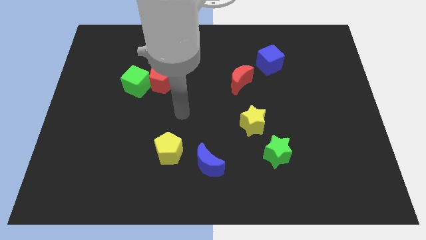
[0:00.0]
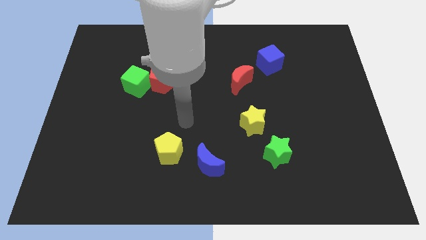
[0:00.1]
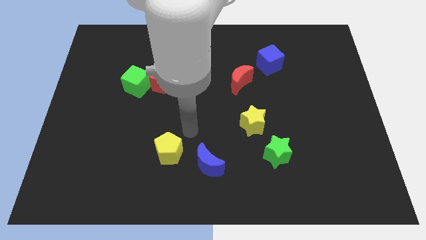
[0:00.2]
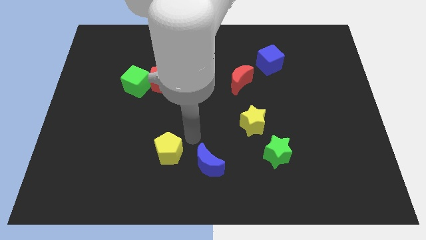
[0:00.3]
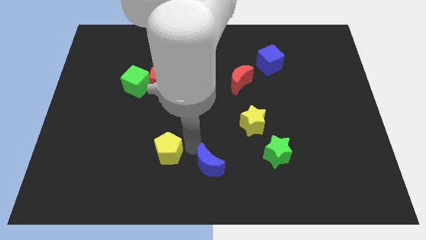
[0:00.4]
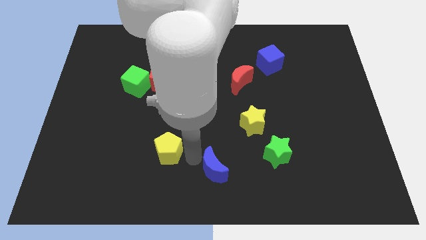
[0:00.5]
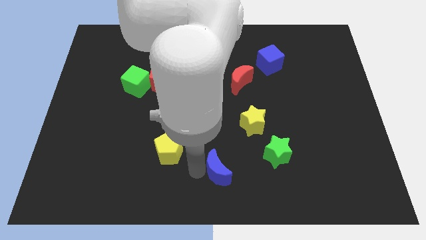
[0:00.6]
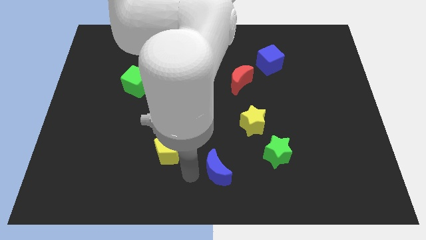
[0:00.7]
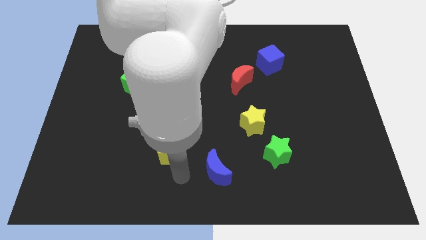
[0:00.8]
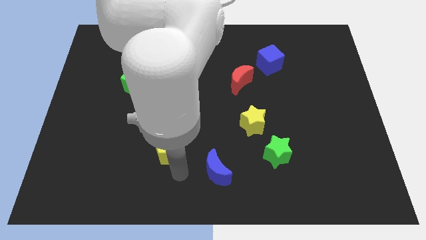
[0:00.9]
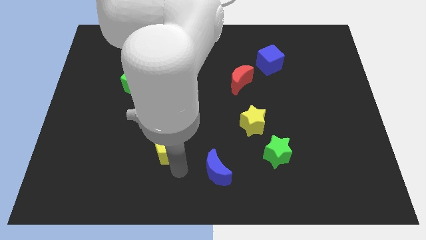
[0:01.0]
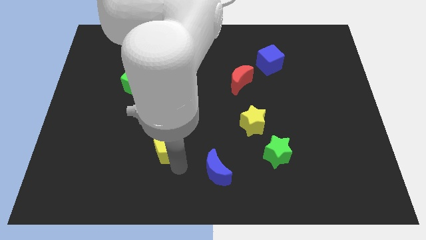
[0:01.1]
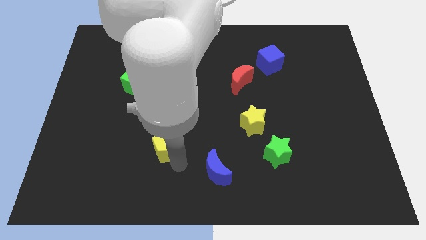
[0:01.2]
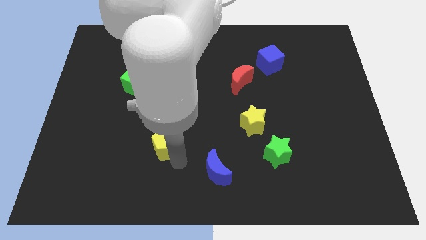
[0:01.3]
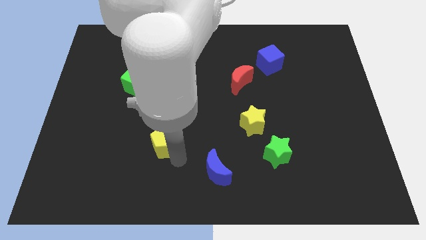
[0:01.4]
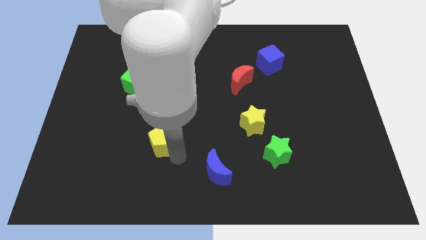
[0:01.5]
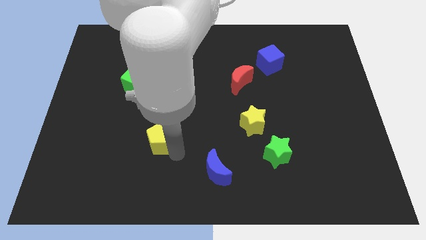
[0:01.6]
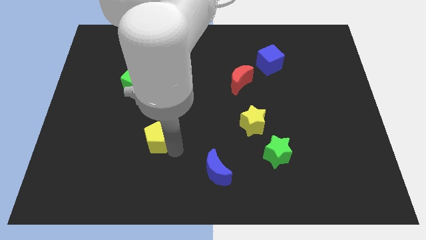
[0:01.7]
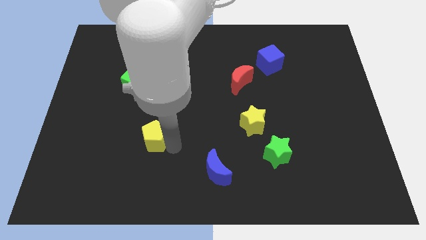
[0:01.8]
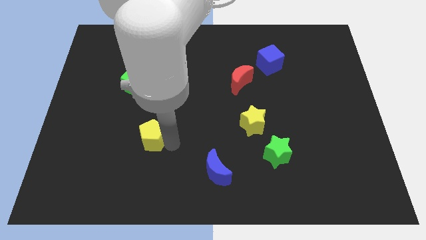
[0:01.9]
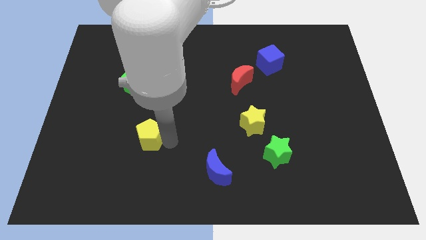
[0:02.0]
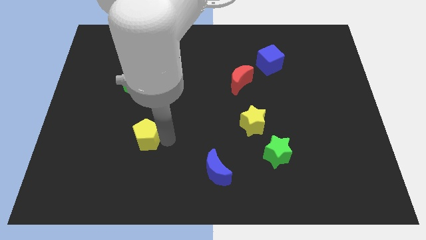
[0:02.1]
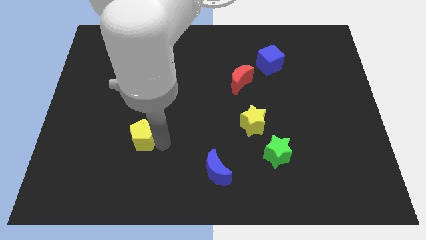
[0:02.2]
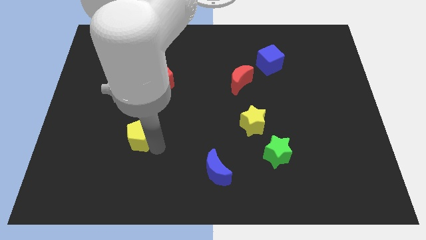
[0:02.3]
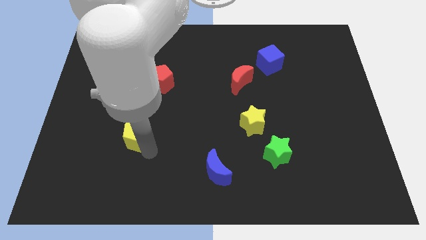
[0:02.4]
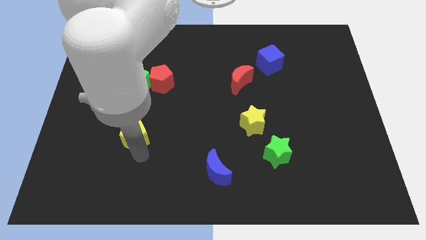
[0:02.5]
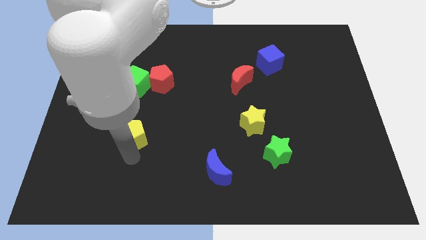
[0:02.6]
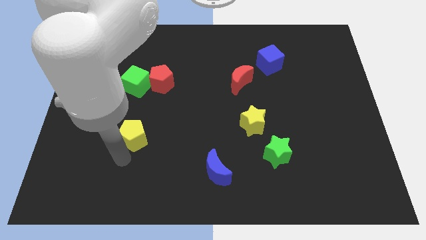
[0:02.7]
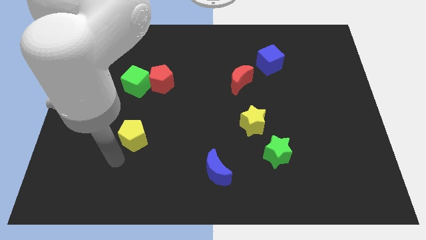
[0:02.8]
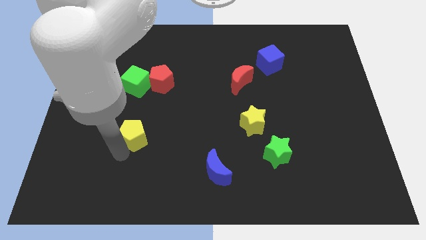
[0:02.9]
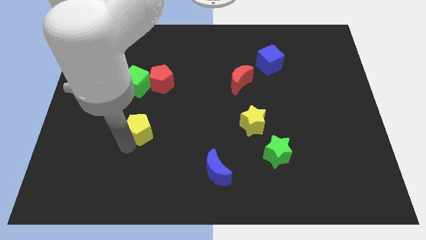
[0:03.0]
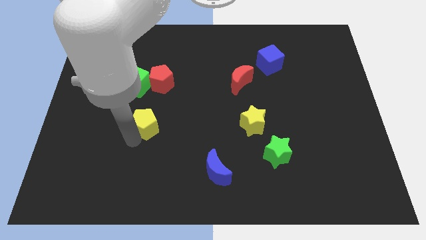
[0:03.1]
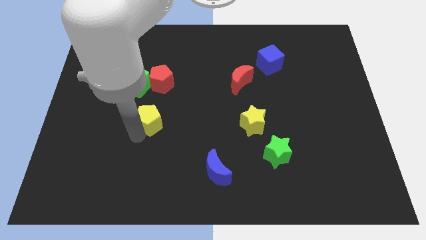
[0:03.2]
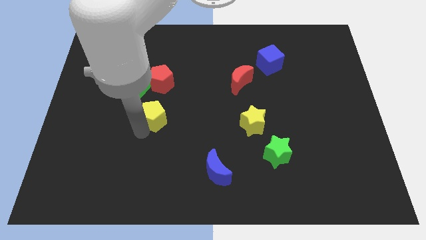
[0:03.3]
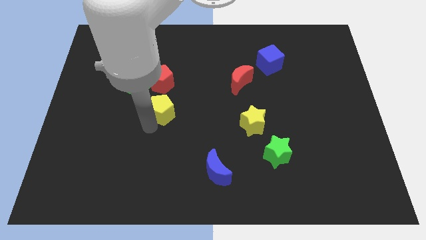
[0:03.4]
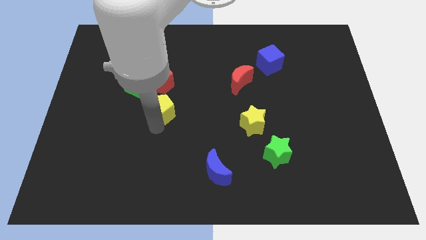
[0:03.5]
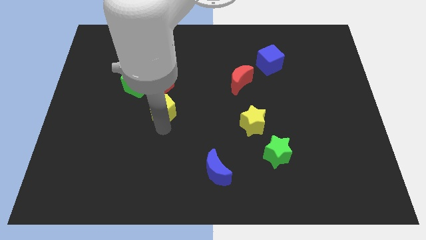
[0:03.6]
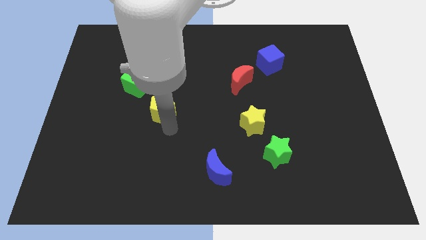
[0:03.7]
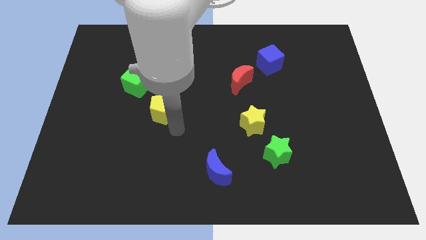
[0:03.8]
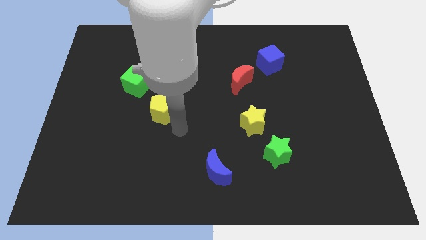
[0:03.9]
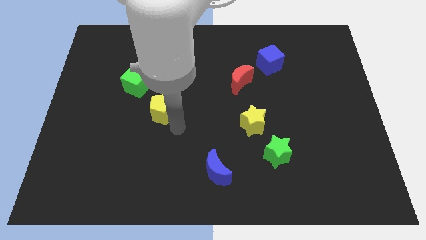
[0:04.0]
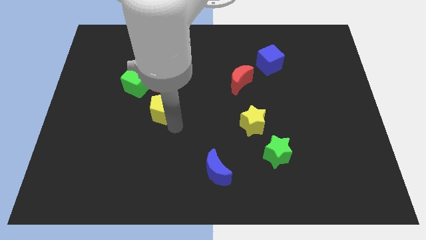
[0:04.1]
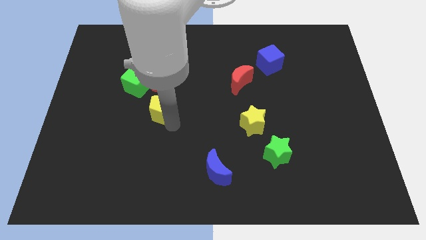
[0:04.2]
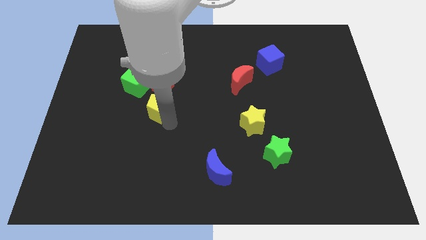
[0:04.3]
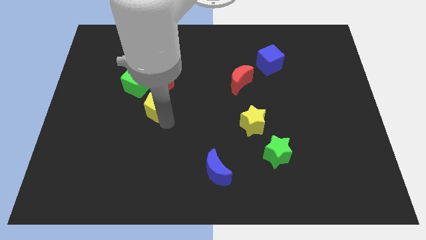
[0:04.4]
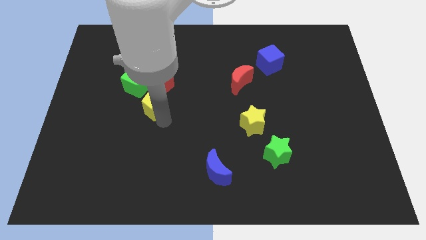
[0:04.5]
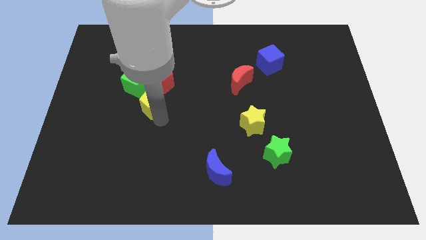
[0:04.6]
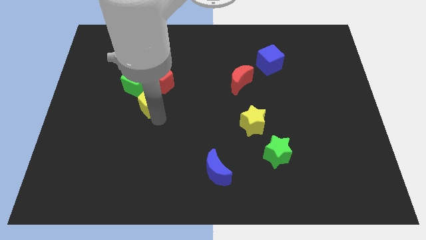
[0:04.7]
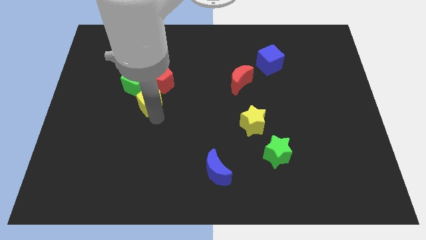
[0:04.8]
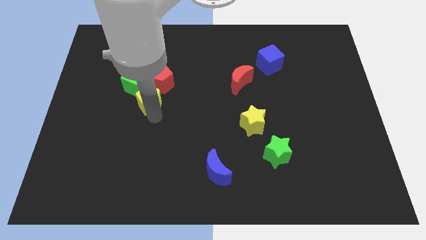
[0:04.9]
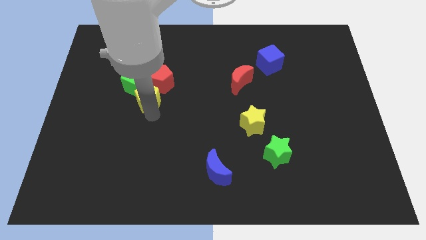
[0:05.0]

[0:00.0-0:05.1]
move the yellow pentagon next to the green cube

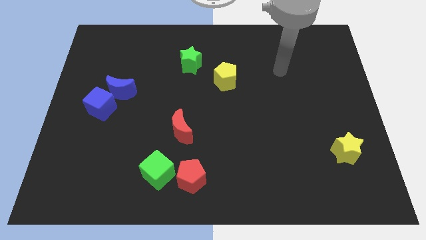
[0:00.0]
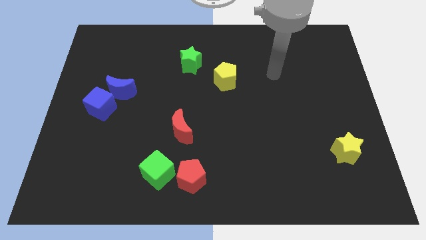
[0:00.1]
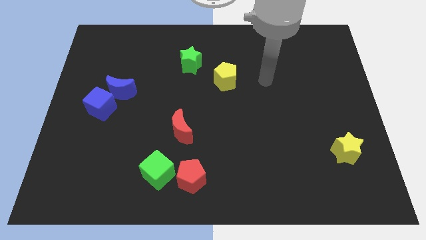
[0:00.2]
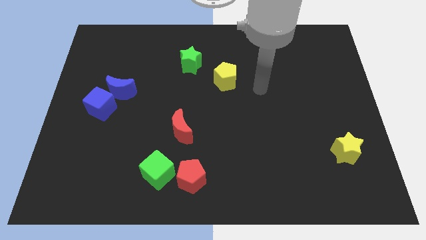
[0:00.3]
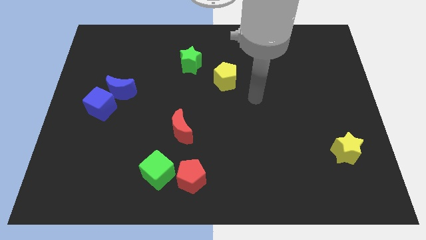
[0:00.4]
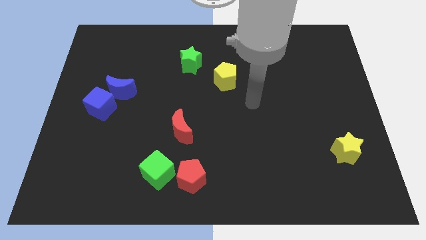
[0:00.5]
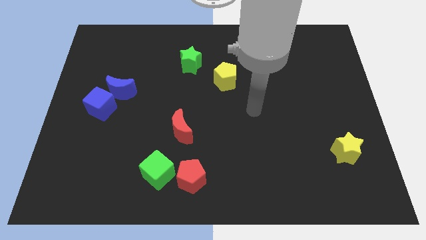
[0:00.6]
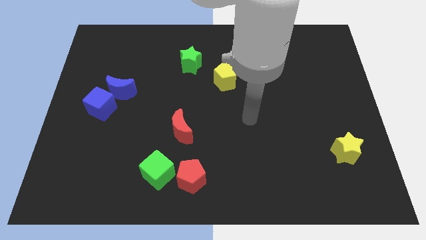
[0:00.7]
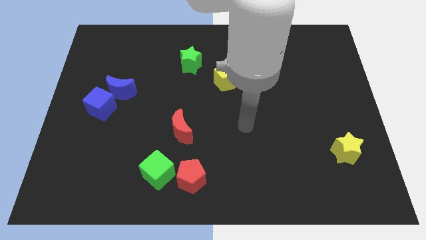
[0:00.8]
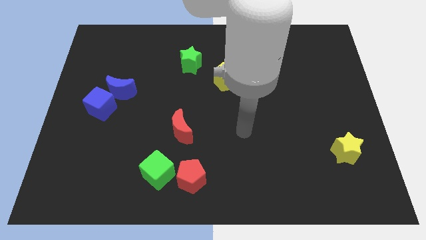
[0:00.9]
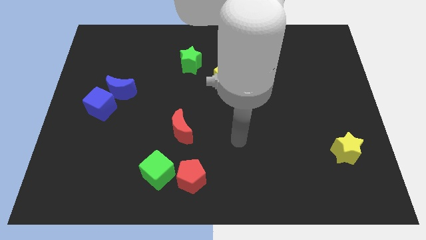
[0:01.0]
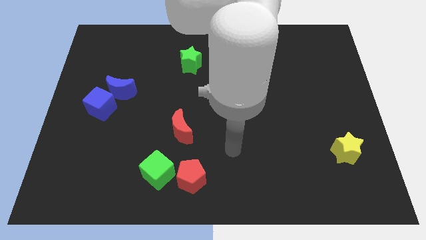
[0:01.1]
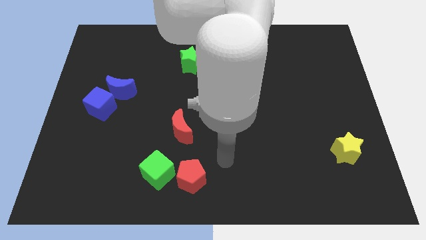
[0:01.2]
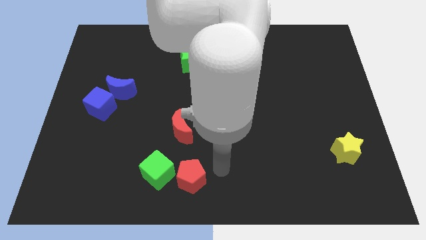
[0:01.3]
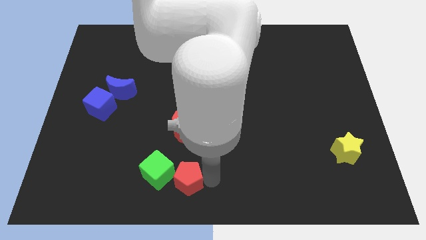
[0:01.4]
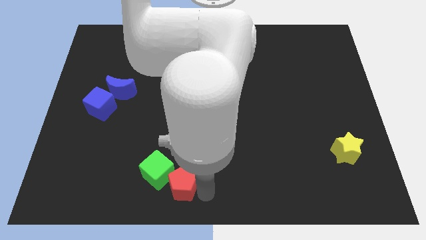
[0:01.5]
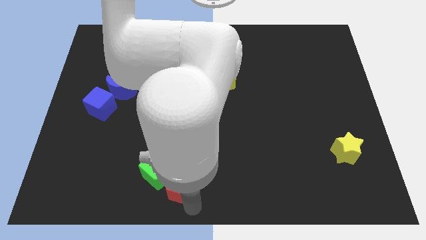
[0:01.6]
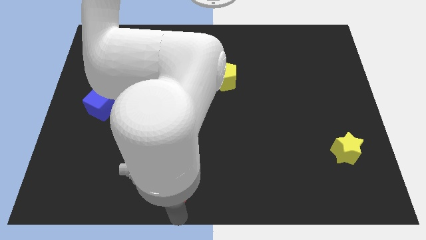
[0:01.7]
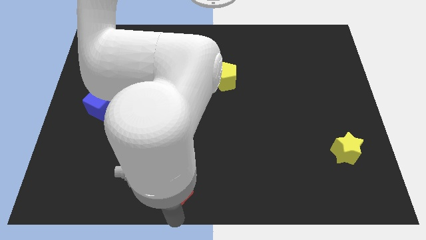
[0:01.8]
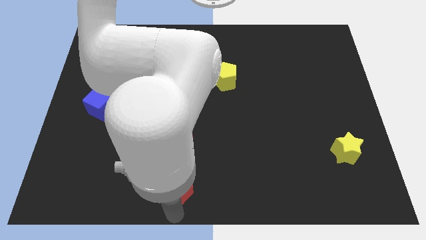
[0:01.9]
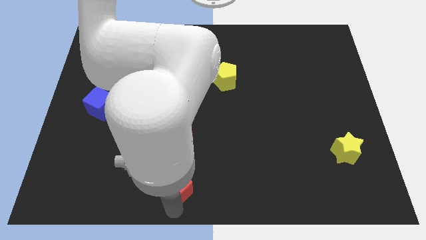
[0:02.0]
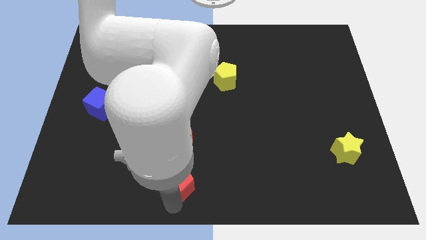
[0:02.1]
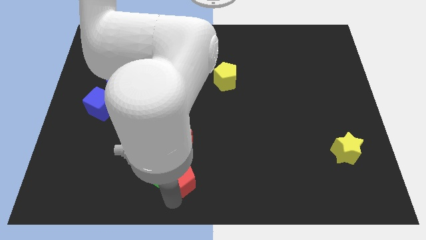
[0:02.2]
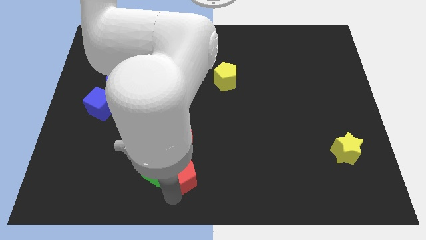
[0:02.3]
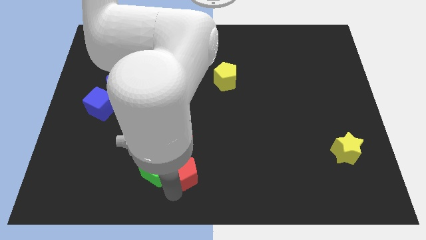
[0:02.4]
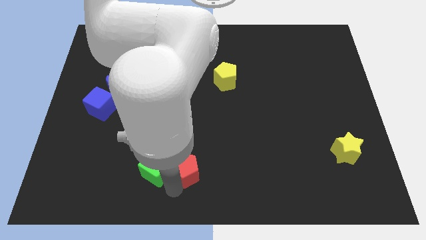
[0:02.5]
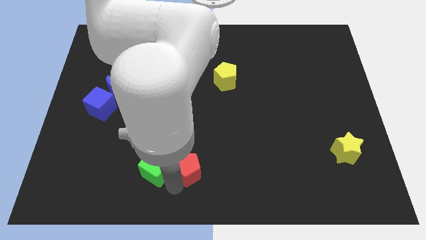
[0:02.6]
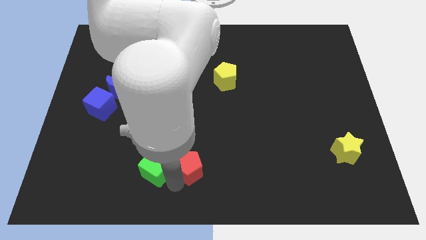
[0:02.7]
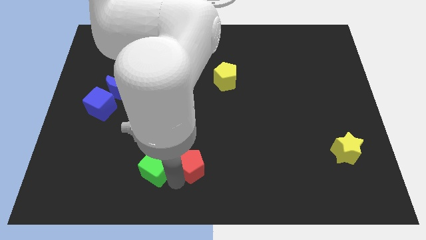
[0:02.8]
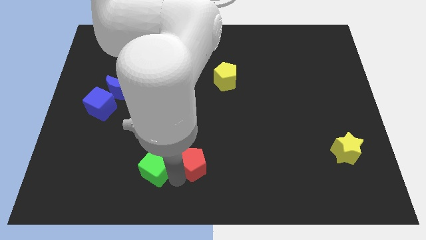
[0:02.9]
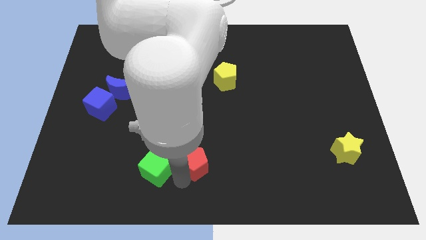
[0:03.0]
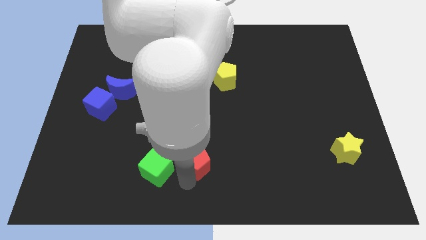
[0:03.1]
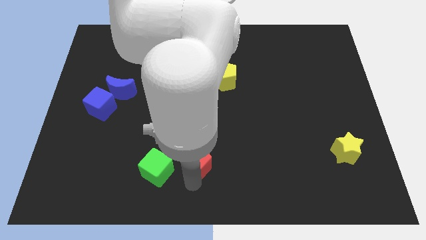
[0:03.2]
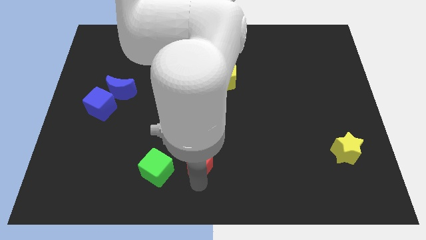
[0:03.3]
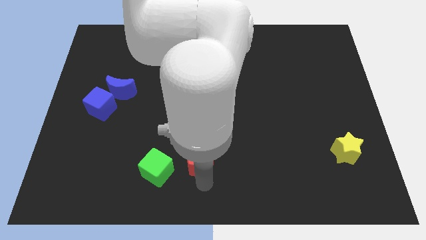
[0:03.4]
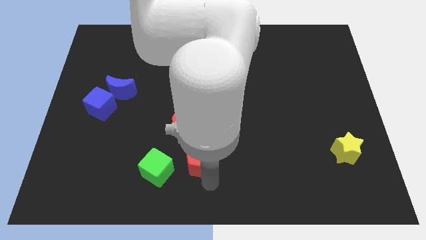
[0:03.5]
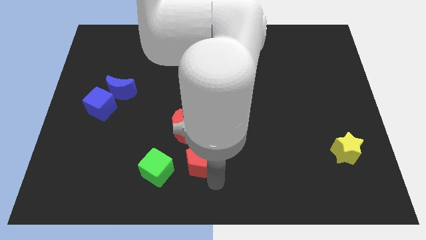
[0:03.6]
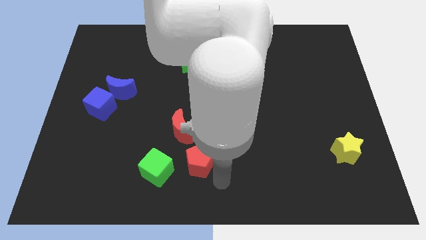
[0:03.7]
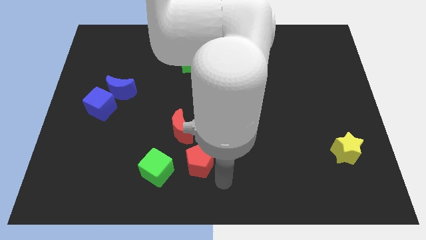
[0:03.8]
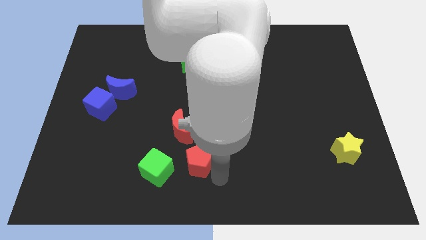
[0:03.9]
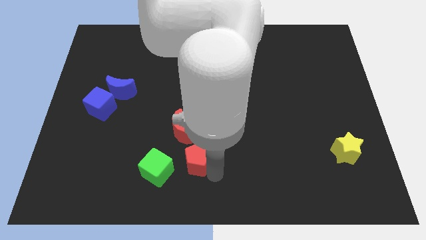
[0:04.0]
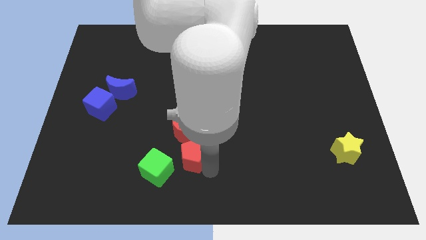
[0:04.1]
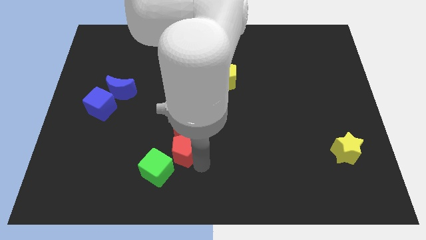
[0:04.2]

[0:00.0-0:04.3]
put the red pentagon towards the red moon
